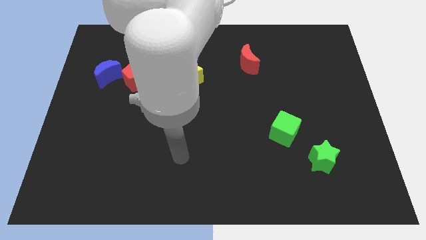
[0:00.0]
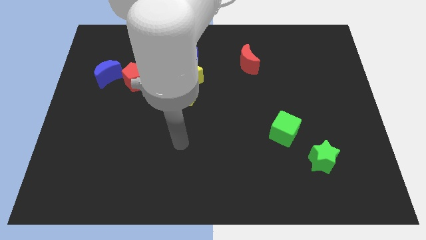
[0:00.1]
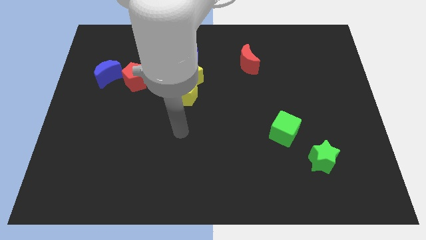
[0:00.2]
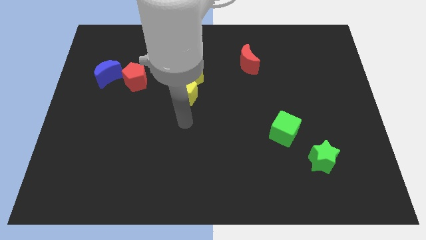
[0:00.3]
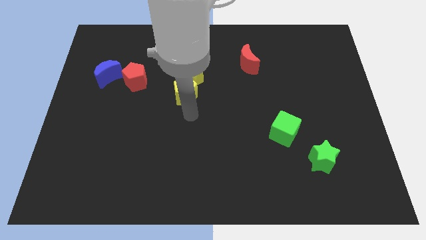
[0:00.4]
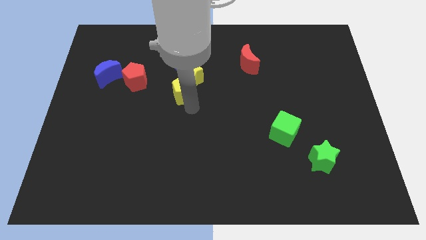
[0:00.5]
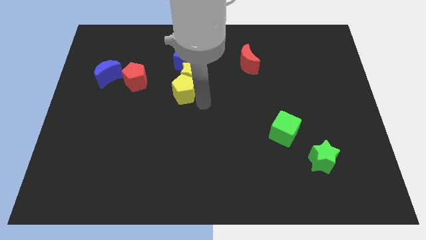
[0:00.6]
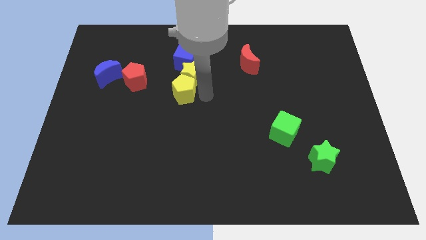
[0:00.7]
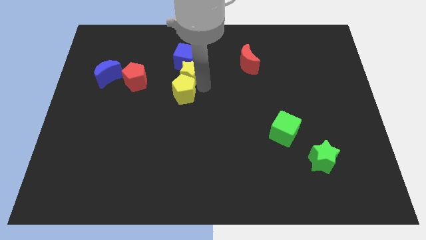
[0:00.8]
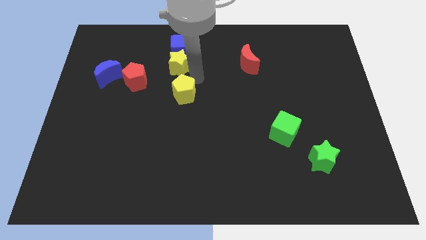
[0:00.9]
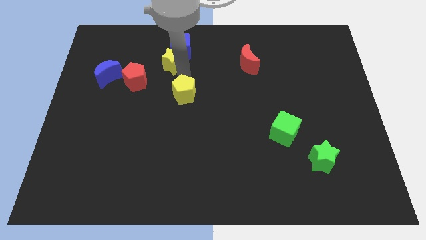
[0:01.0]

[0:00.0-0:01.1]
separate the yellow pentagon from the yellow star

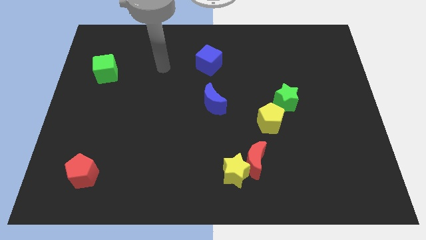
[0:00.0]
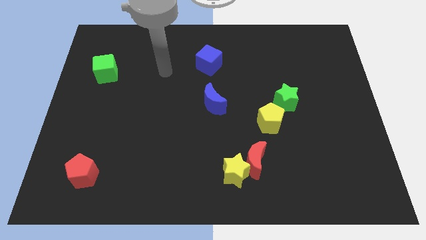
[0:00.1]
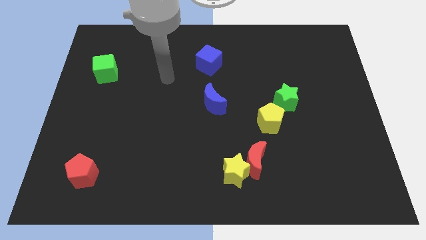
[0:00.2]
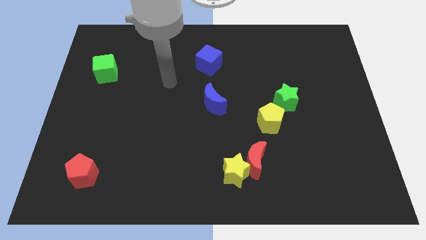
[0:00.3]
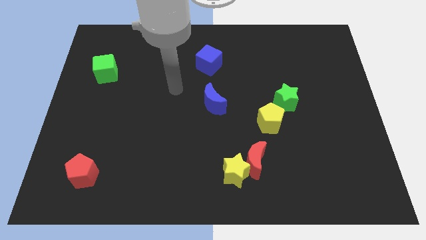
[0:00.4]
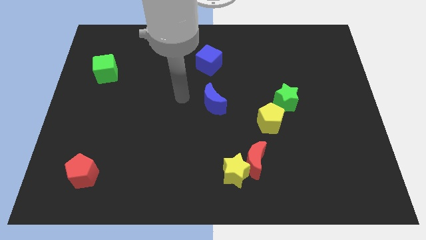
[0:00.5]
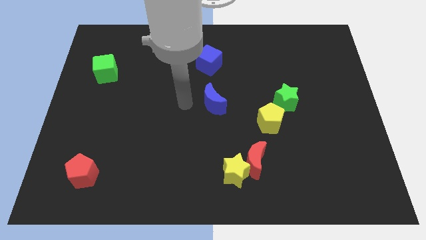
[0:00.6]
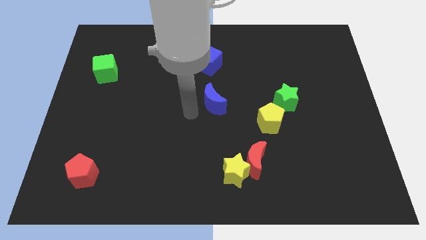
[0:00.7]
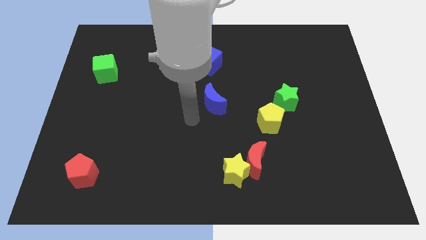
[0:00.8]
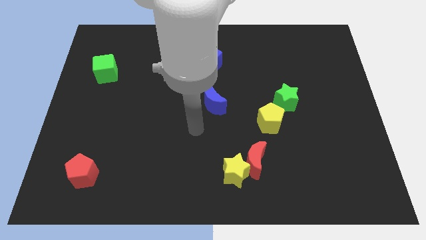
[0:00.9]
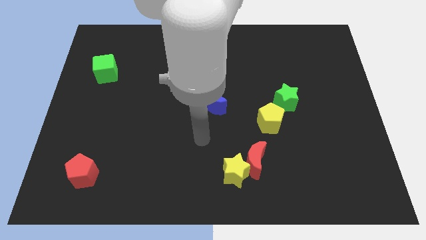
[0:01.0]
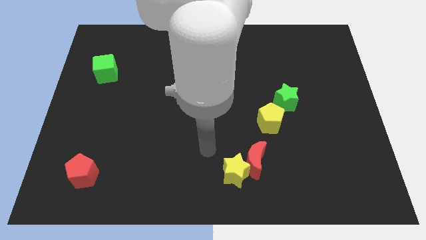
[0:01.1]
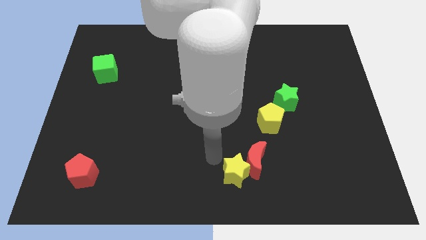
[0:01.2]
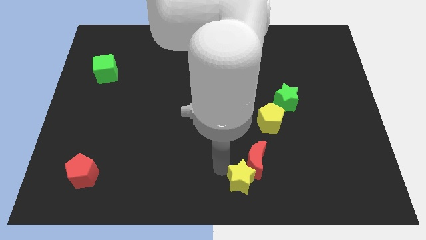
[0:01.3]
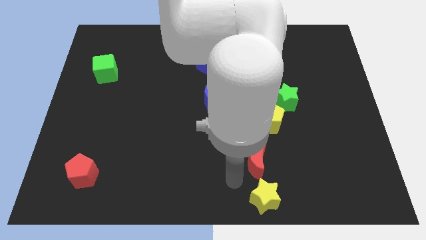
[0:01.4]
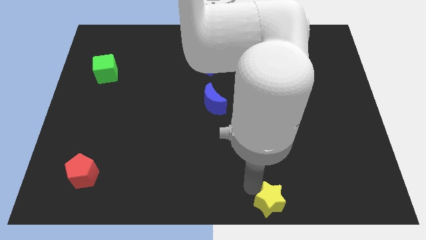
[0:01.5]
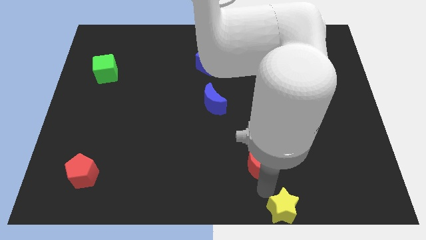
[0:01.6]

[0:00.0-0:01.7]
move the red moon away from the yellow star

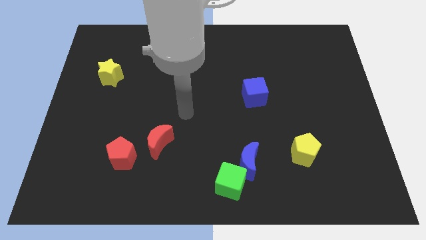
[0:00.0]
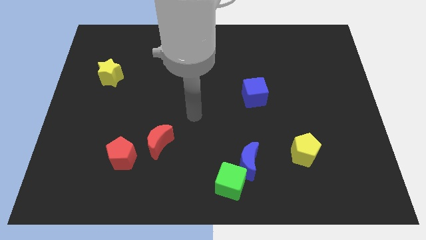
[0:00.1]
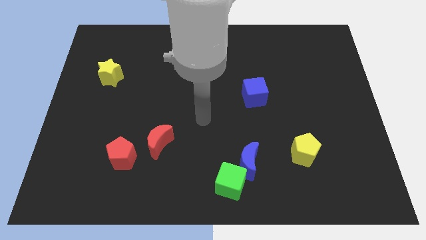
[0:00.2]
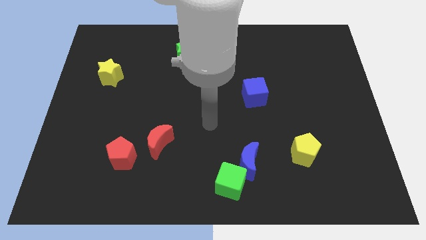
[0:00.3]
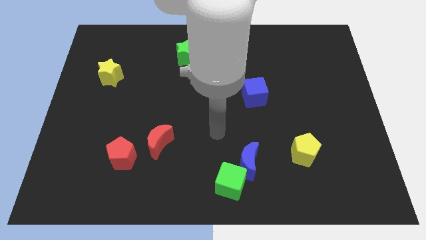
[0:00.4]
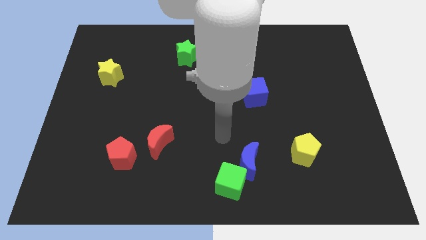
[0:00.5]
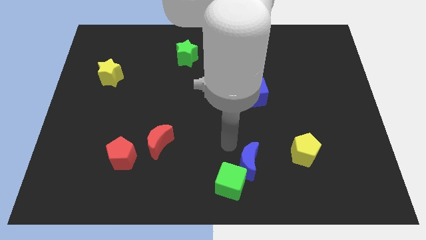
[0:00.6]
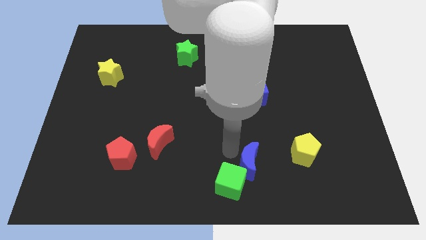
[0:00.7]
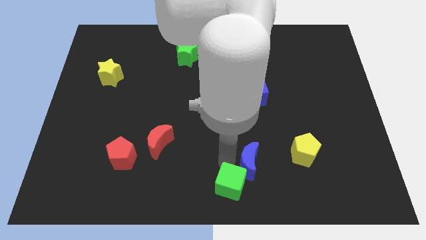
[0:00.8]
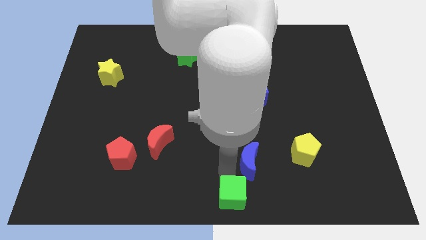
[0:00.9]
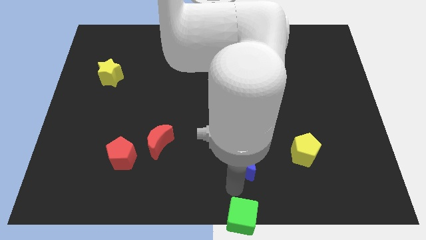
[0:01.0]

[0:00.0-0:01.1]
pull the blue moon apart from the green cube

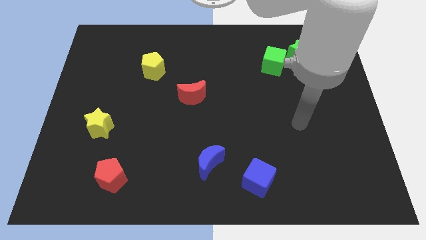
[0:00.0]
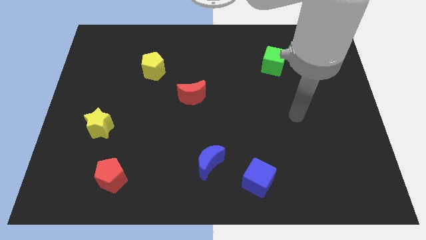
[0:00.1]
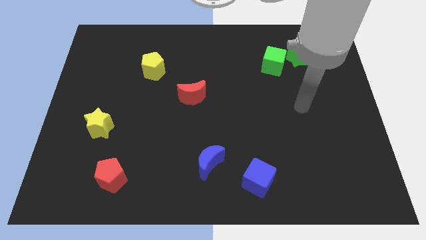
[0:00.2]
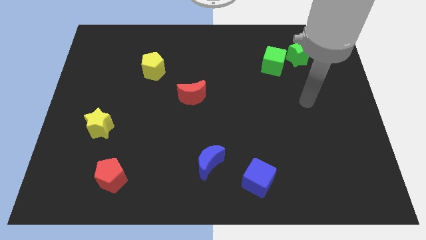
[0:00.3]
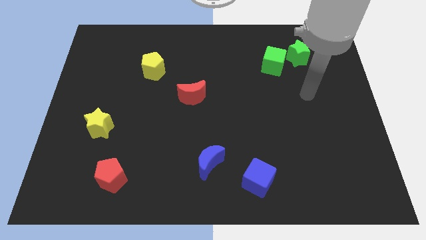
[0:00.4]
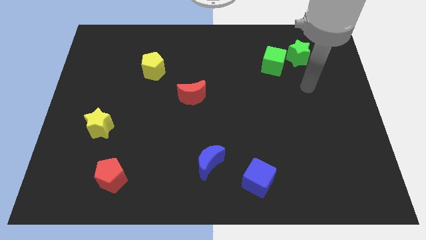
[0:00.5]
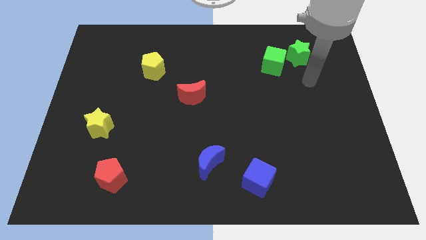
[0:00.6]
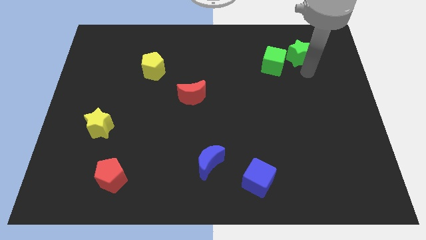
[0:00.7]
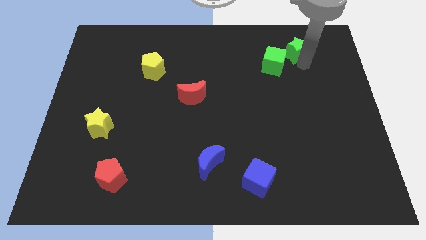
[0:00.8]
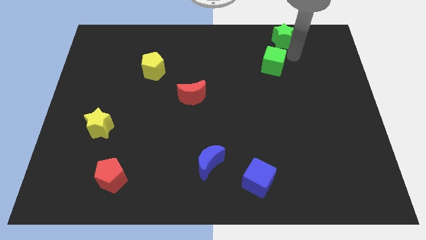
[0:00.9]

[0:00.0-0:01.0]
separate the green cube from the green star

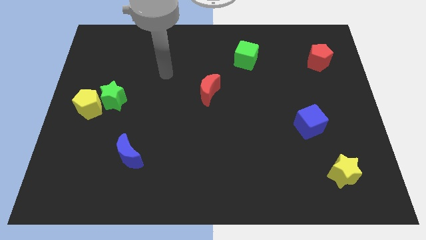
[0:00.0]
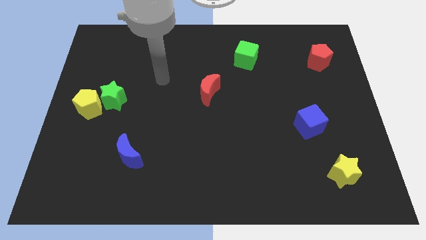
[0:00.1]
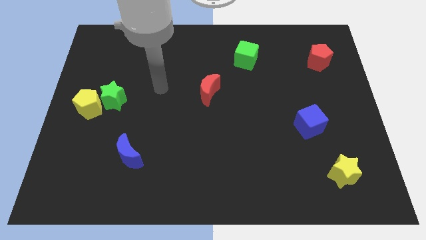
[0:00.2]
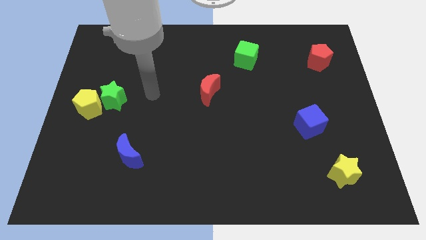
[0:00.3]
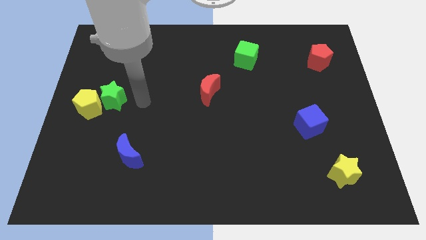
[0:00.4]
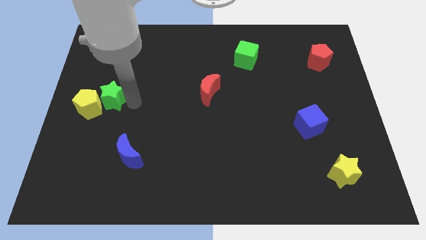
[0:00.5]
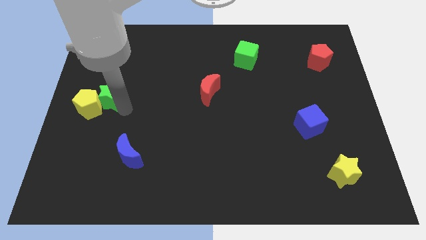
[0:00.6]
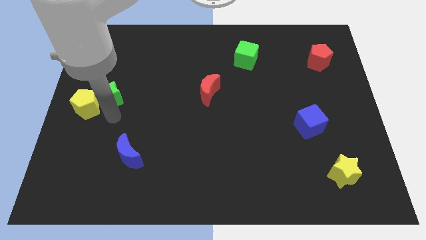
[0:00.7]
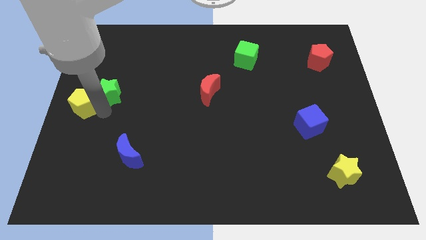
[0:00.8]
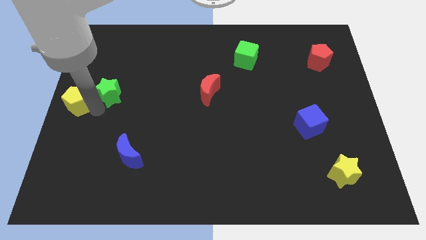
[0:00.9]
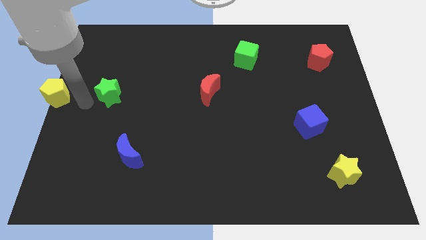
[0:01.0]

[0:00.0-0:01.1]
move the green star away from the yellow pentagon

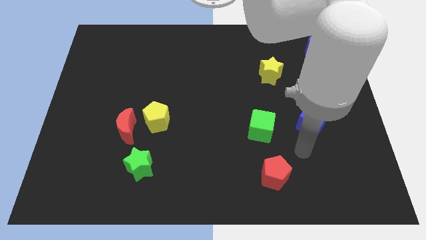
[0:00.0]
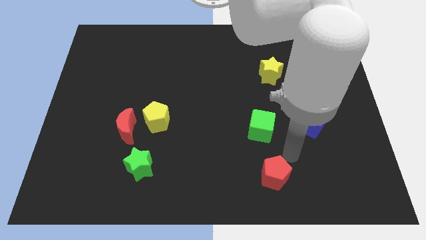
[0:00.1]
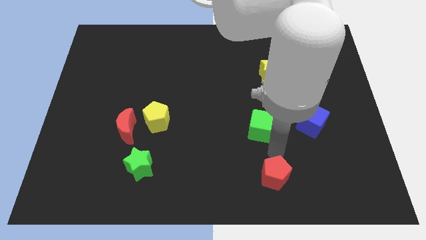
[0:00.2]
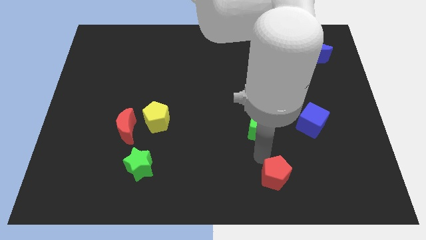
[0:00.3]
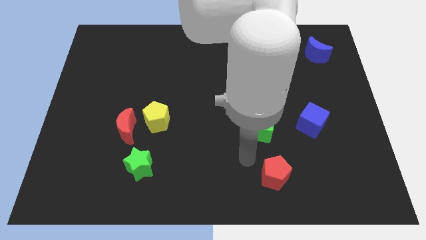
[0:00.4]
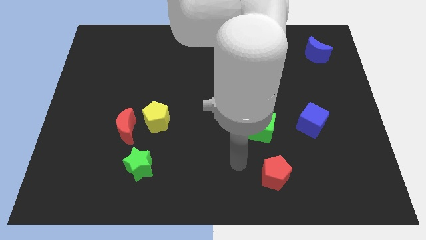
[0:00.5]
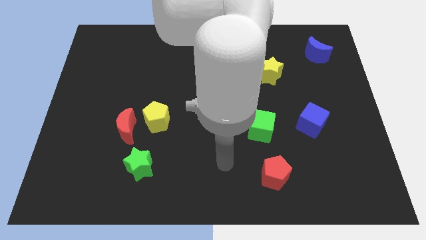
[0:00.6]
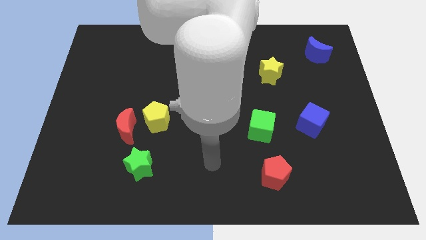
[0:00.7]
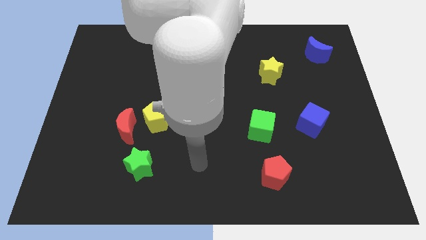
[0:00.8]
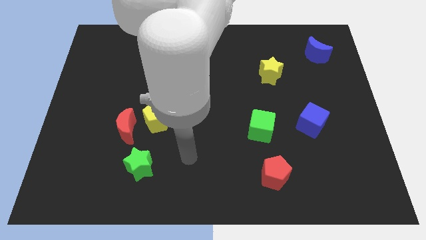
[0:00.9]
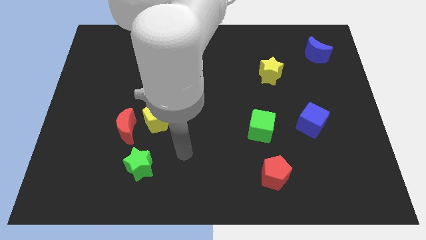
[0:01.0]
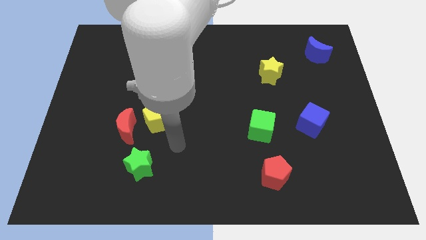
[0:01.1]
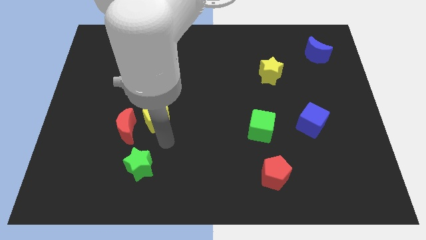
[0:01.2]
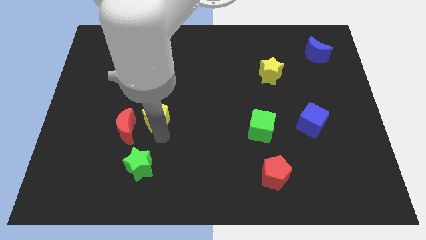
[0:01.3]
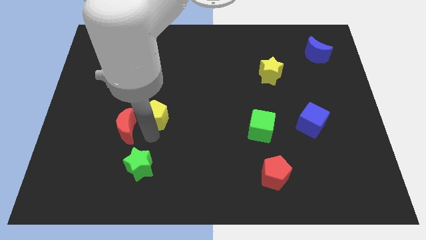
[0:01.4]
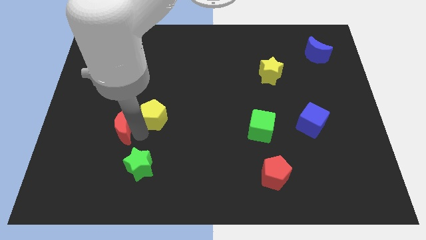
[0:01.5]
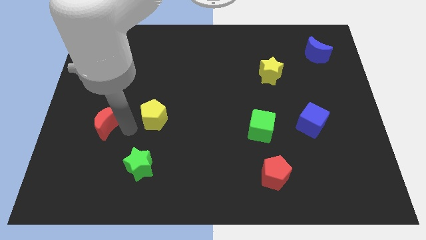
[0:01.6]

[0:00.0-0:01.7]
move the yellow pentagon away from the red moon

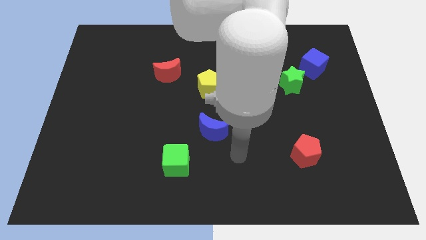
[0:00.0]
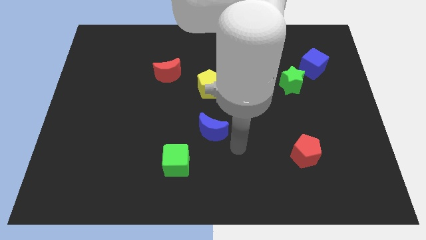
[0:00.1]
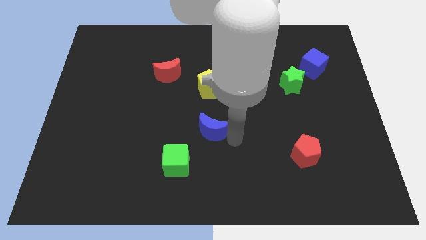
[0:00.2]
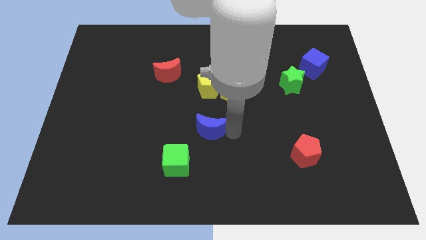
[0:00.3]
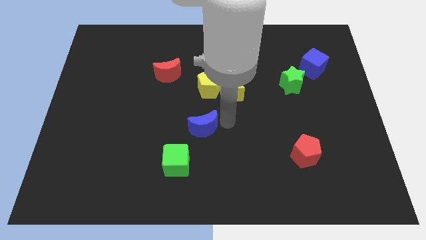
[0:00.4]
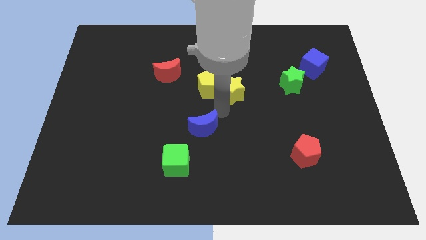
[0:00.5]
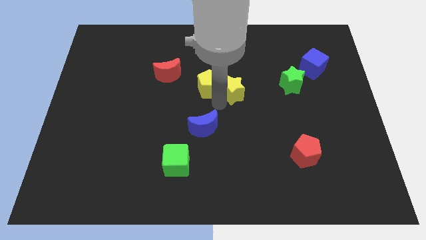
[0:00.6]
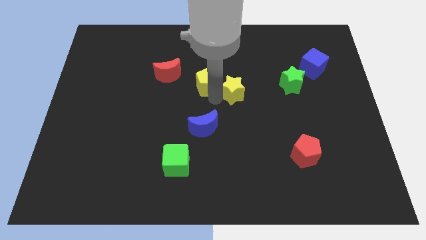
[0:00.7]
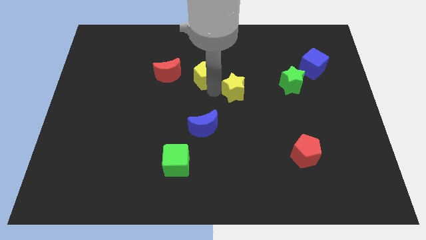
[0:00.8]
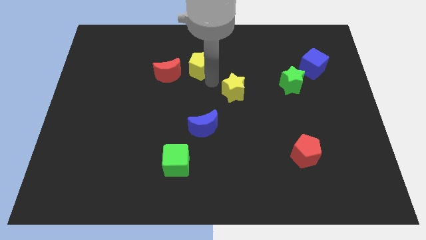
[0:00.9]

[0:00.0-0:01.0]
pull the yellow star apart from the yellow pentagon

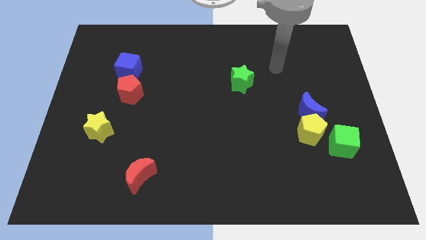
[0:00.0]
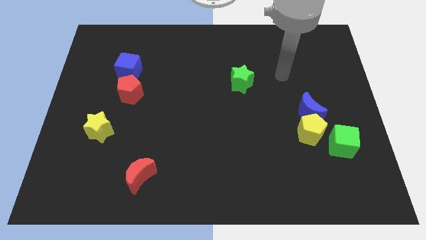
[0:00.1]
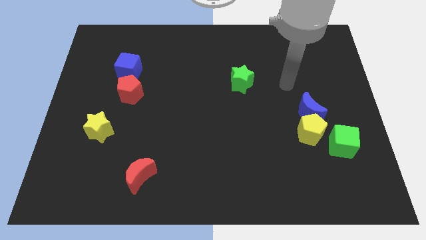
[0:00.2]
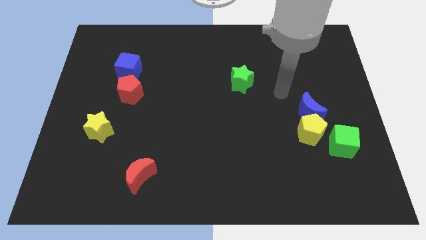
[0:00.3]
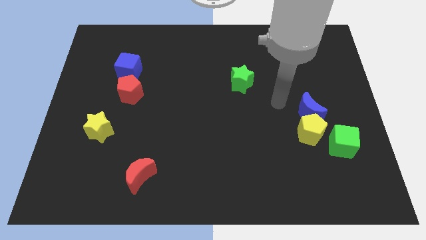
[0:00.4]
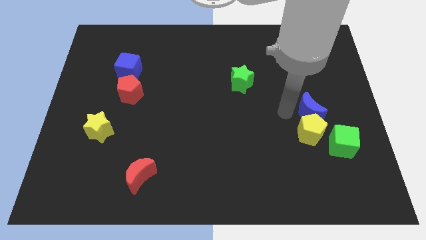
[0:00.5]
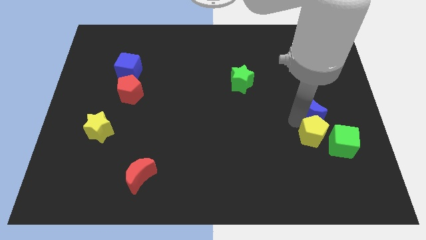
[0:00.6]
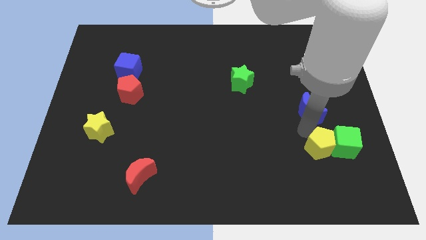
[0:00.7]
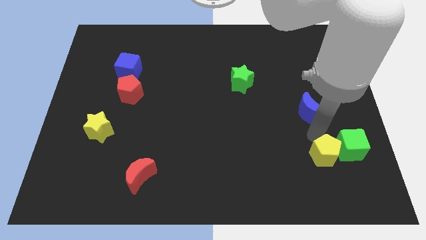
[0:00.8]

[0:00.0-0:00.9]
pull the blue moon apart from the yellow pentagon
